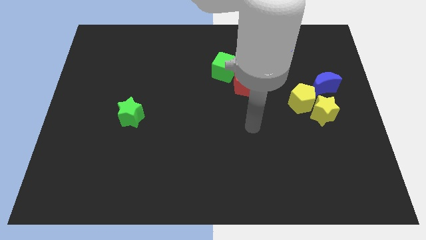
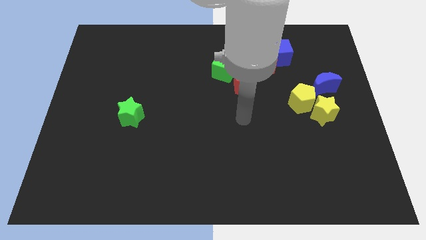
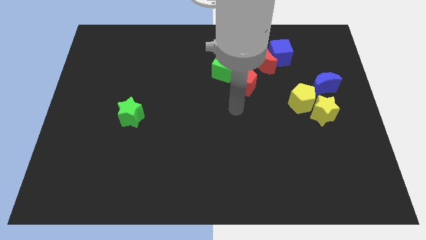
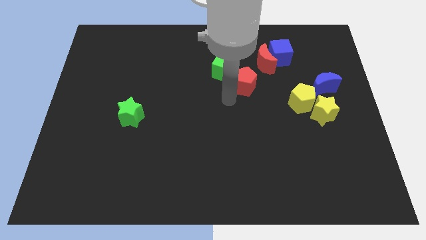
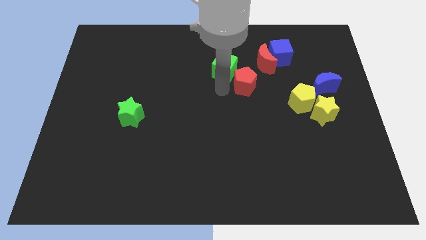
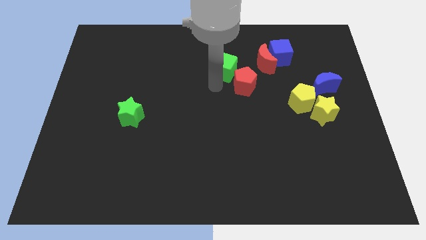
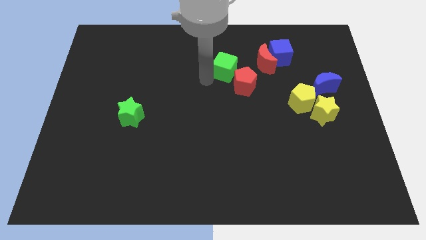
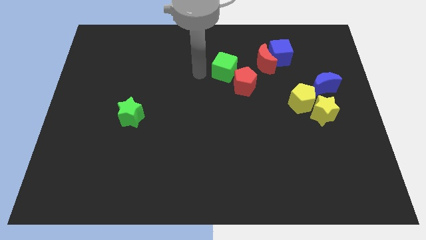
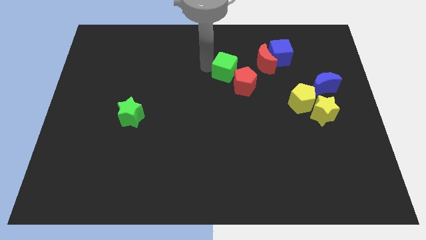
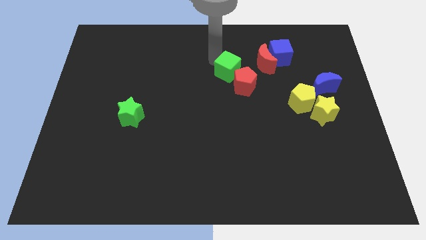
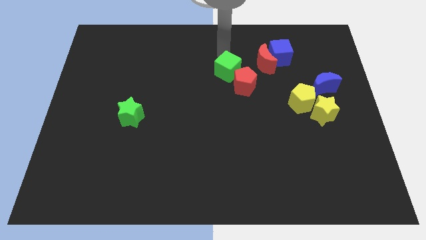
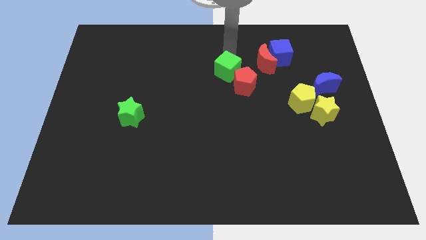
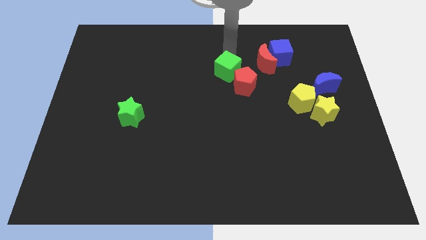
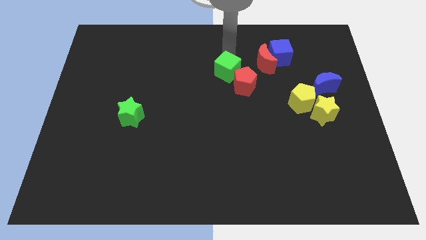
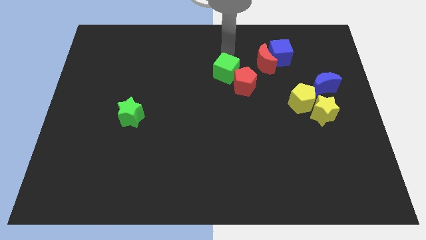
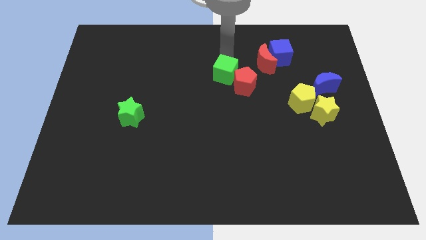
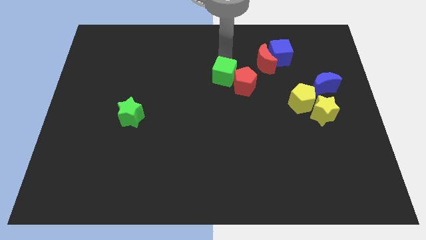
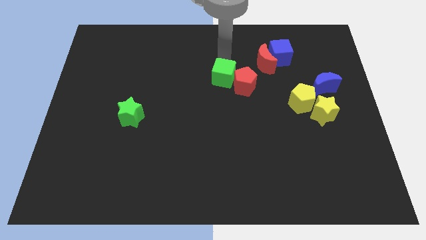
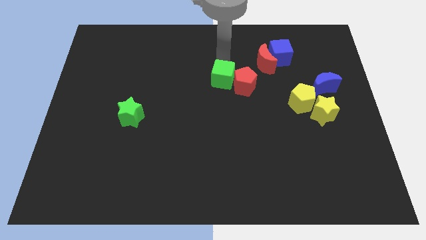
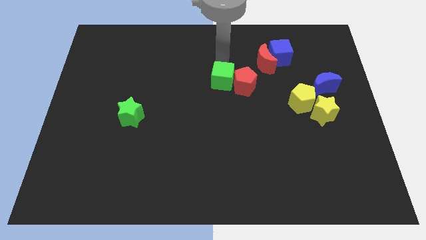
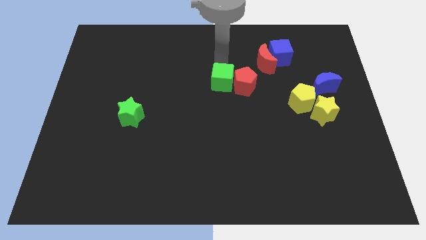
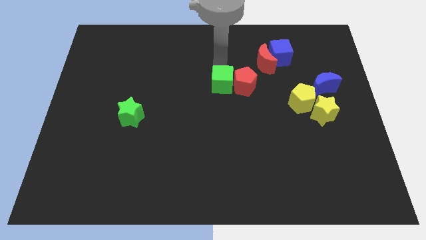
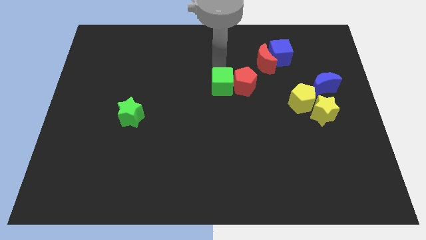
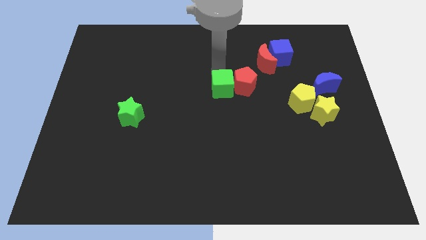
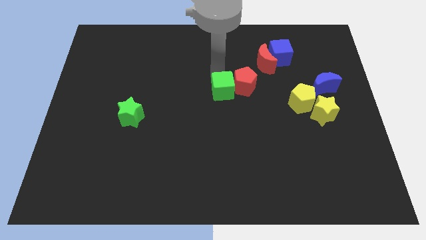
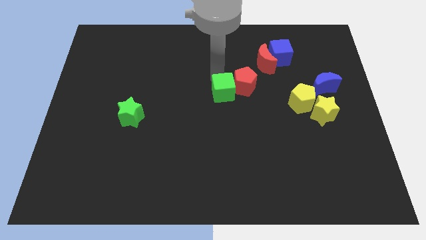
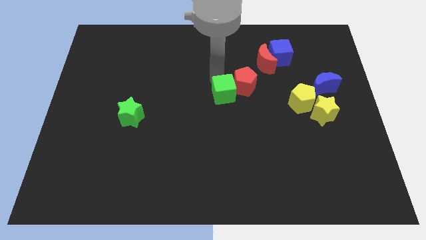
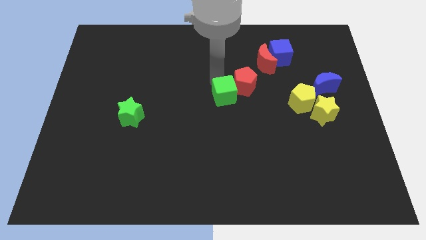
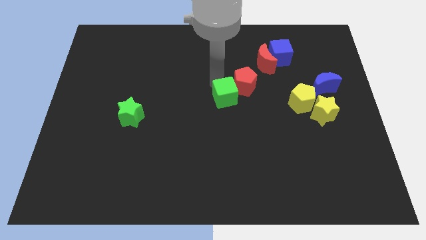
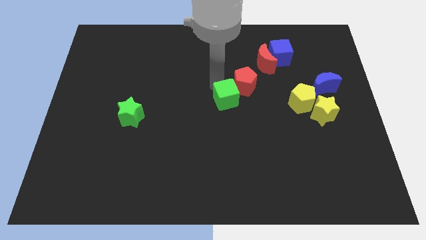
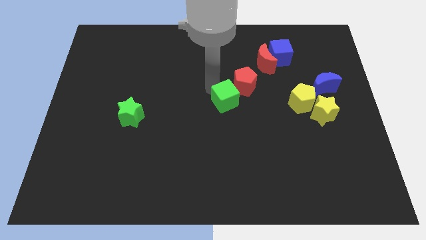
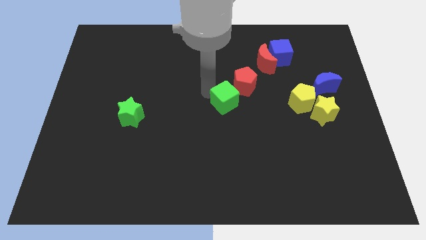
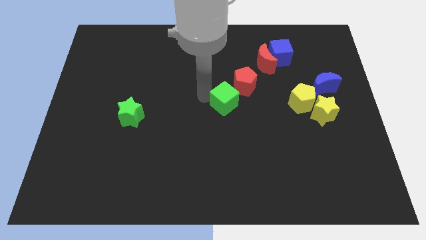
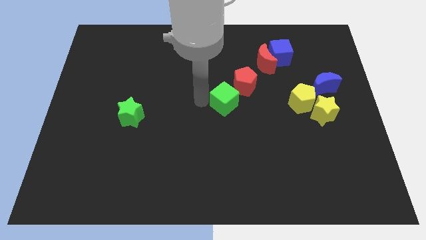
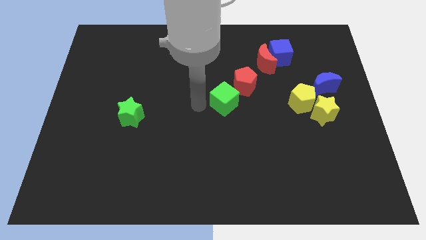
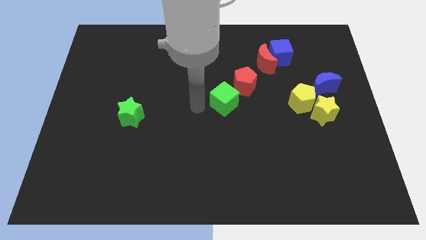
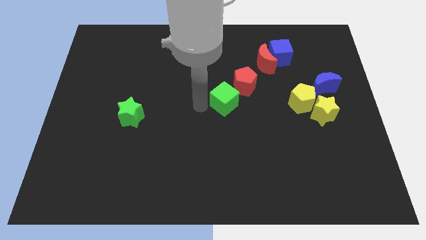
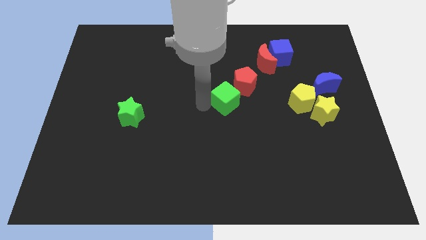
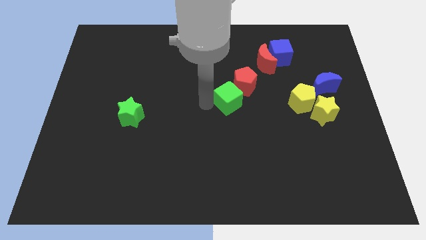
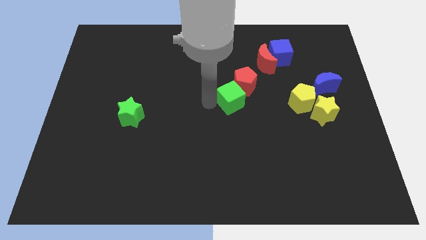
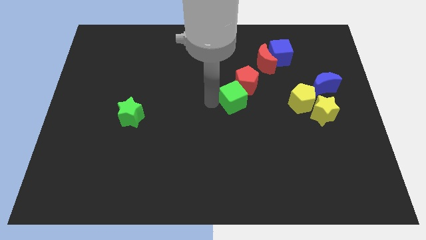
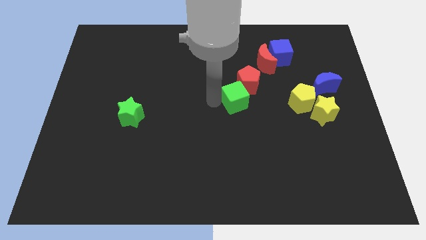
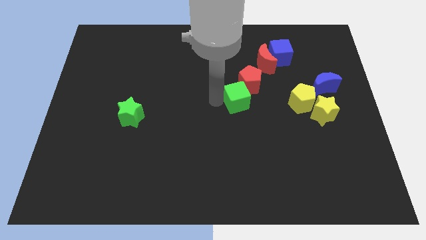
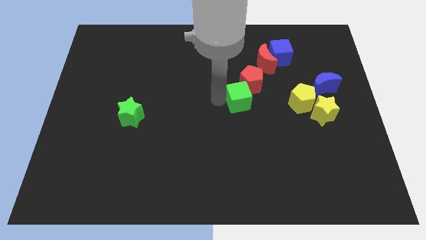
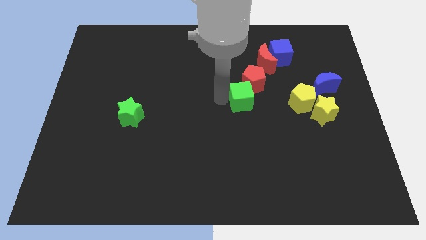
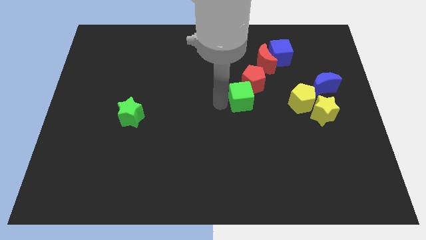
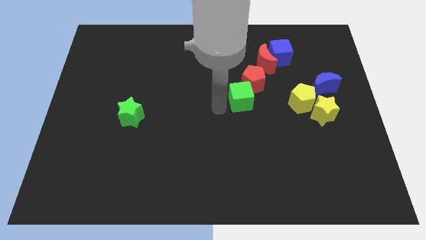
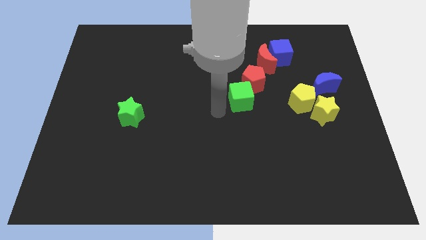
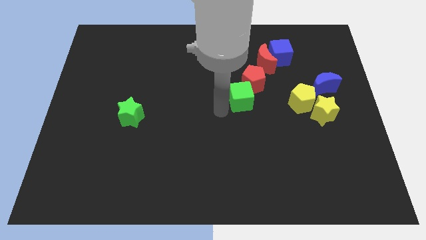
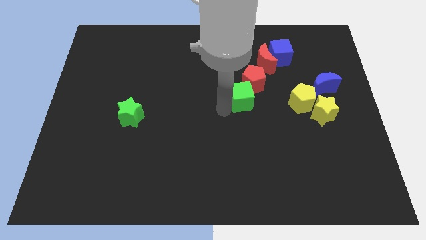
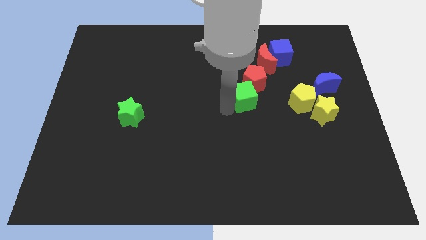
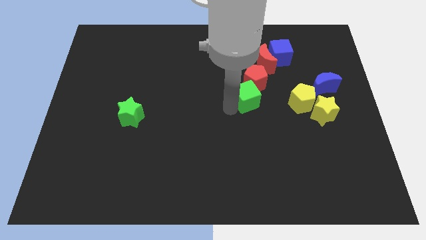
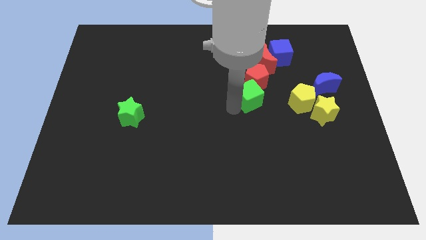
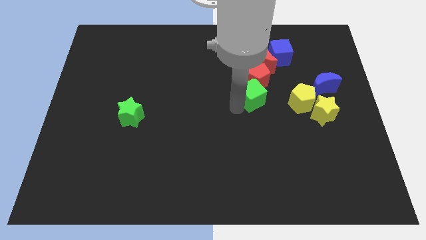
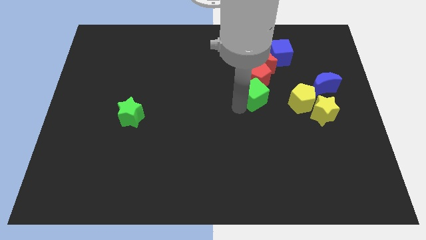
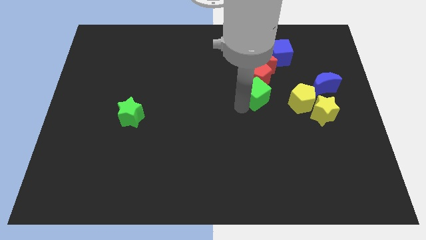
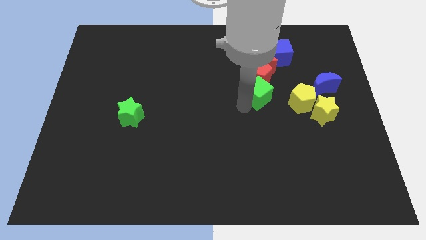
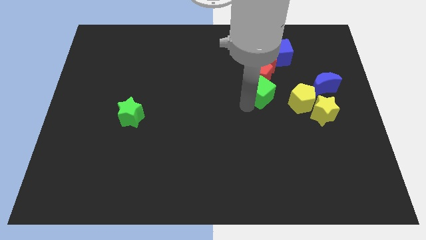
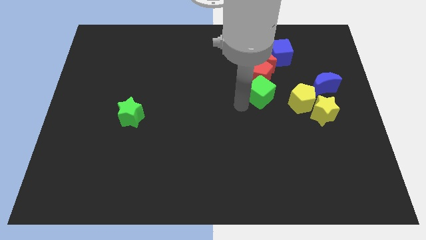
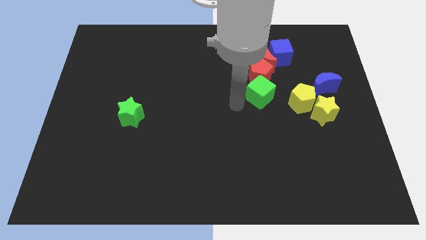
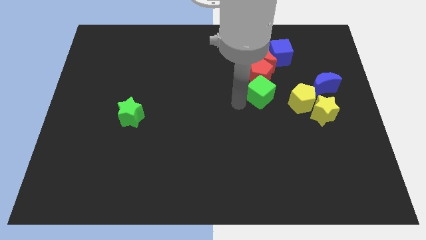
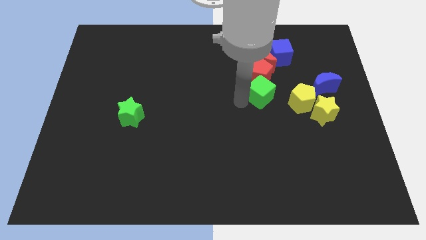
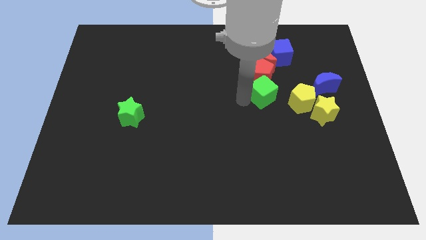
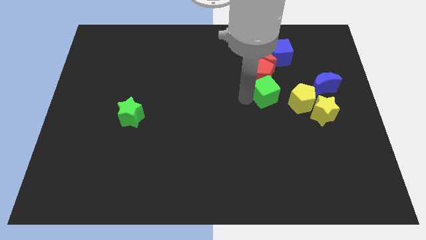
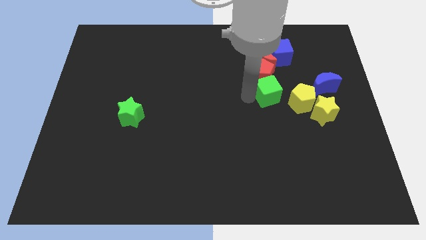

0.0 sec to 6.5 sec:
slide the green cube to the bottom side of the blue cube

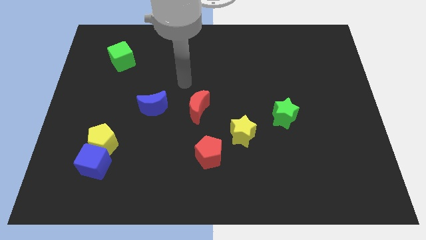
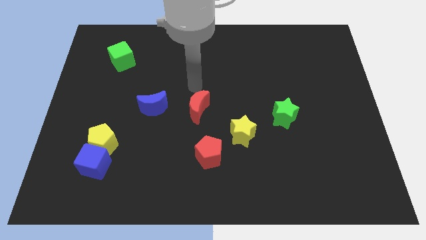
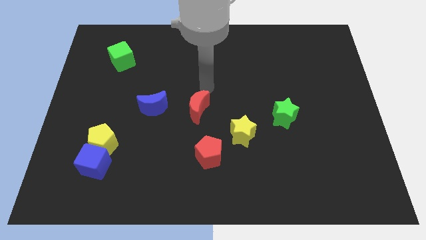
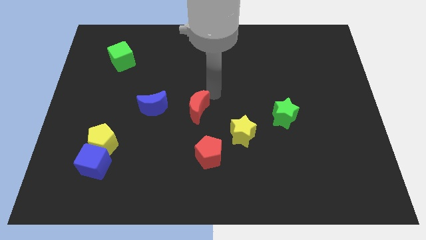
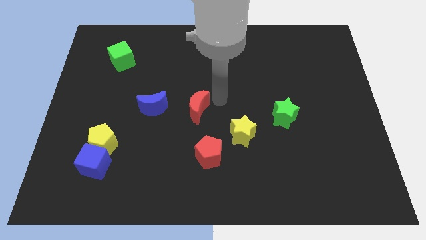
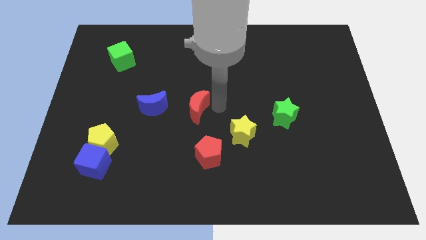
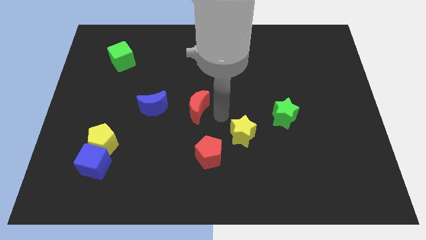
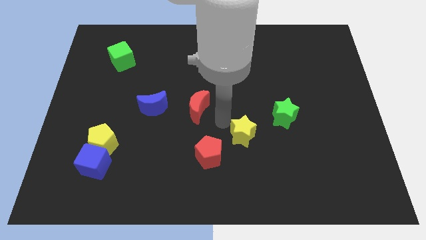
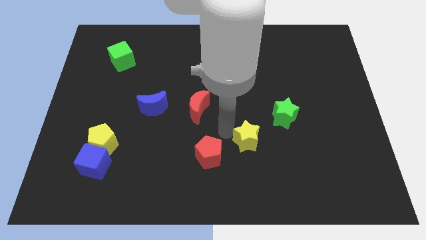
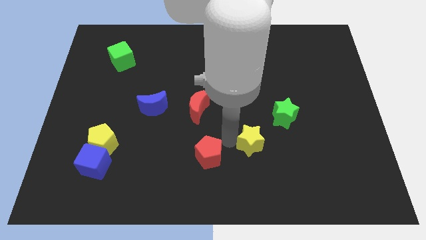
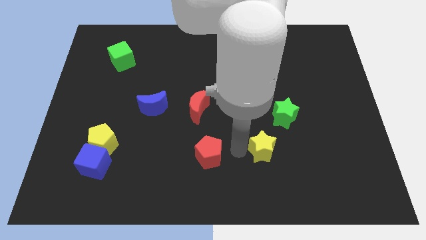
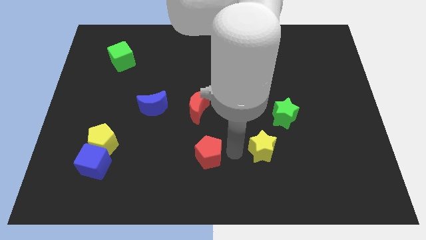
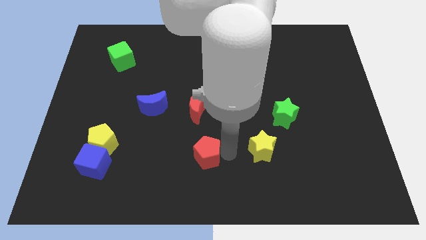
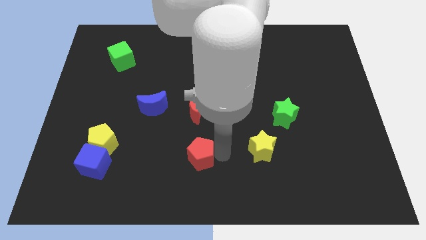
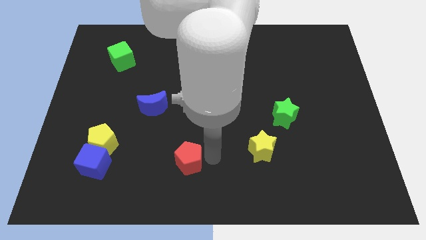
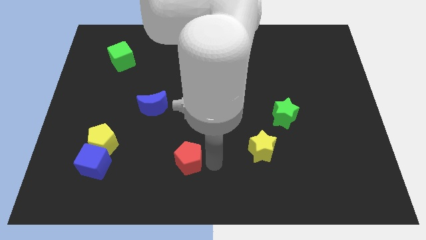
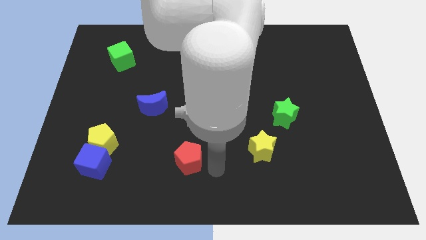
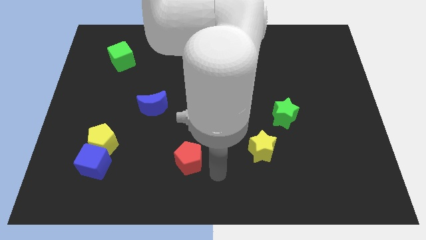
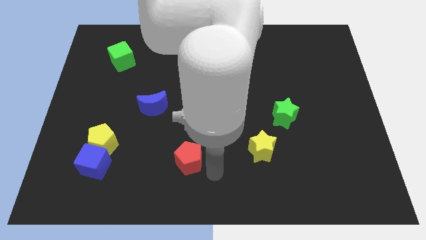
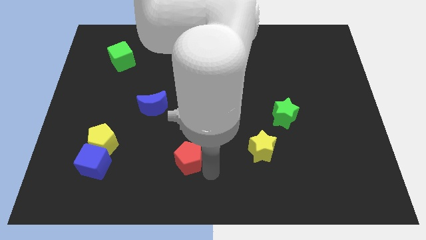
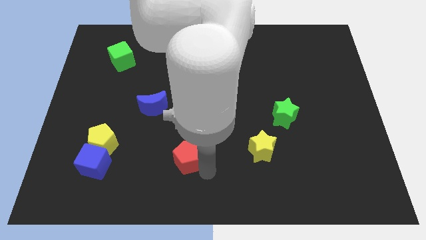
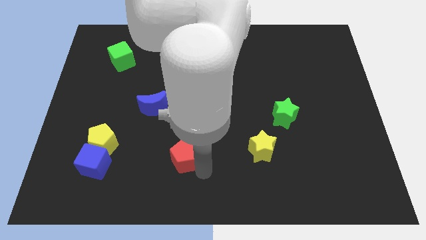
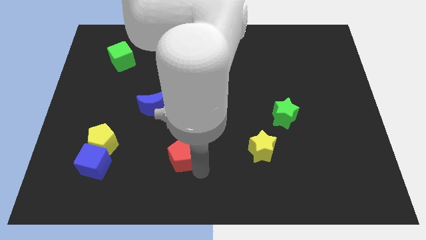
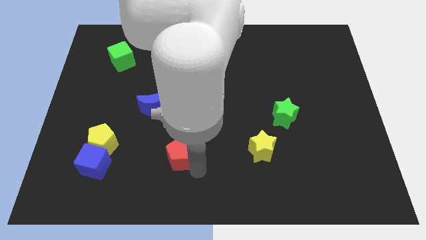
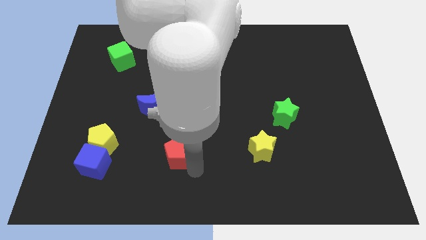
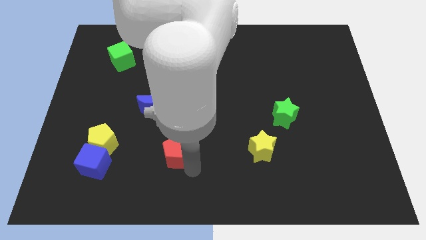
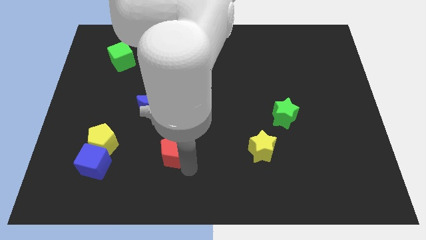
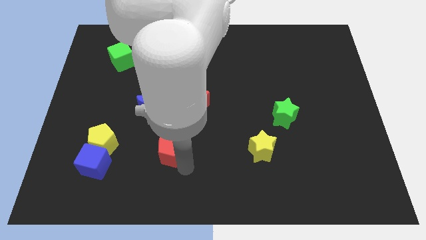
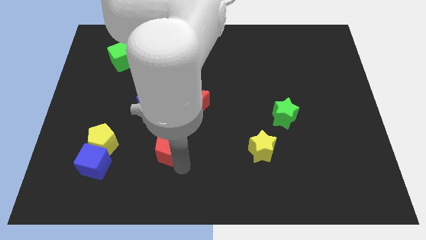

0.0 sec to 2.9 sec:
push the red pentagon to the bottom of the blue moon
